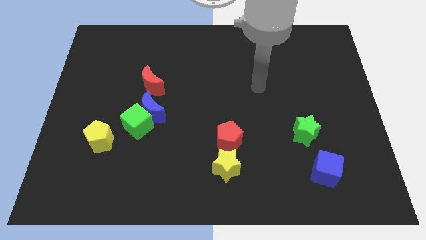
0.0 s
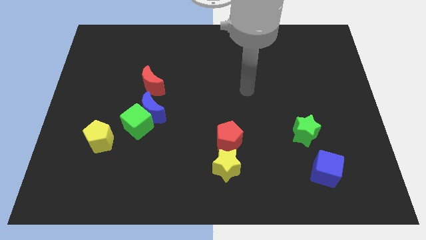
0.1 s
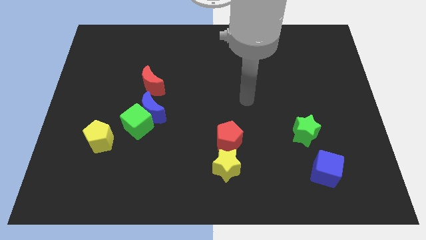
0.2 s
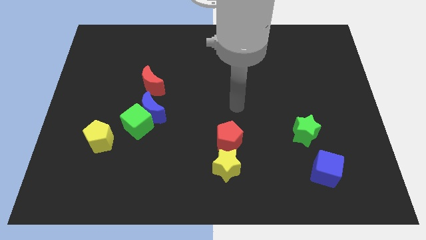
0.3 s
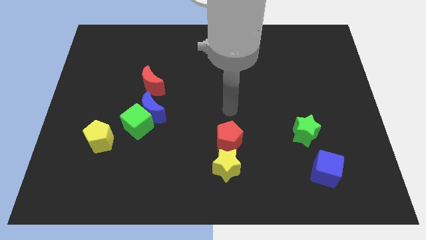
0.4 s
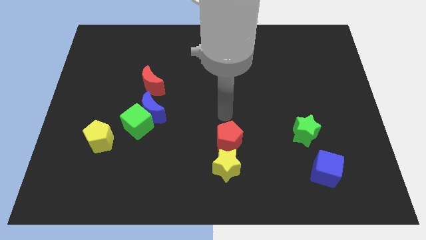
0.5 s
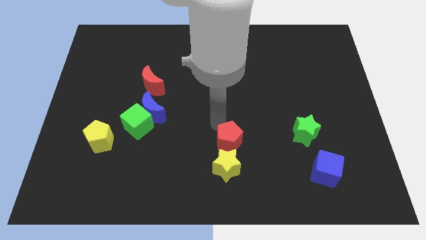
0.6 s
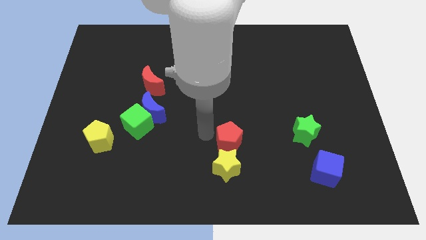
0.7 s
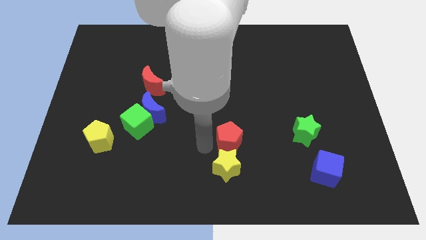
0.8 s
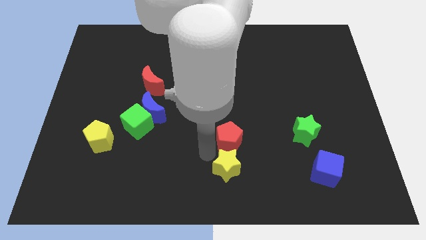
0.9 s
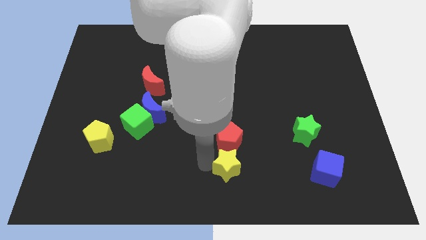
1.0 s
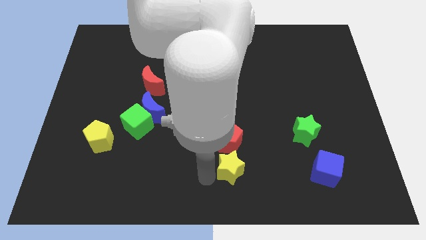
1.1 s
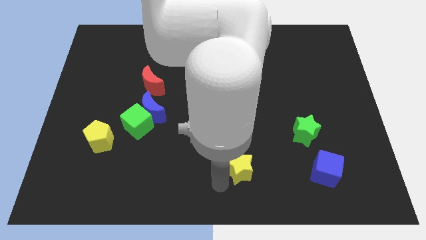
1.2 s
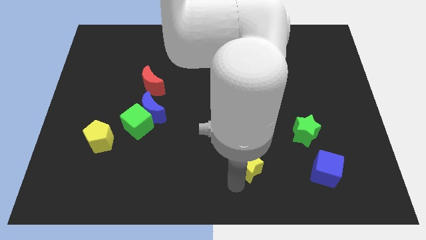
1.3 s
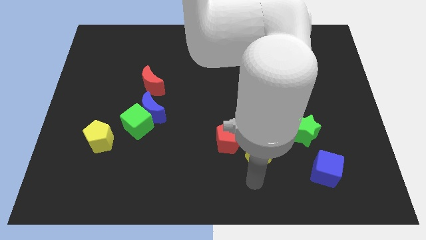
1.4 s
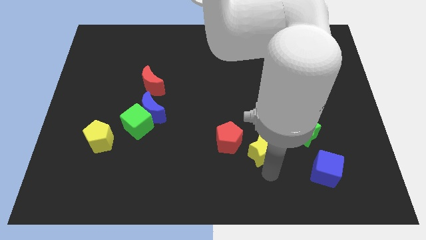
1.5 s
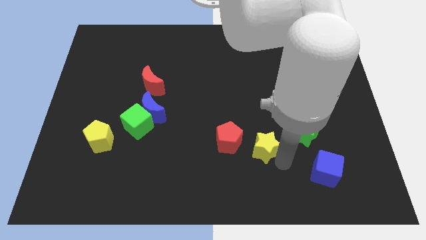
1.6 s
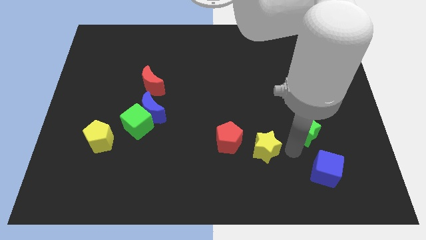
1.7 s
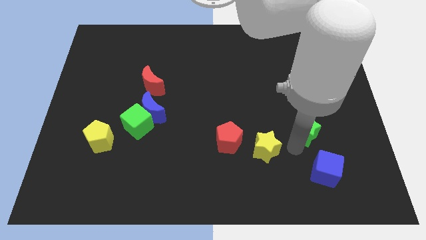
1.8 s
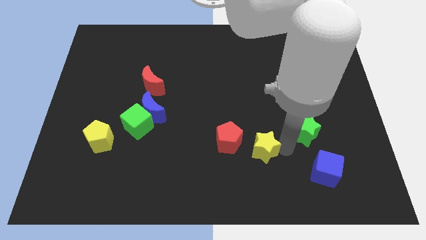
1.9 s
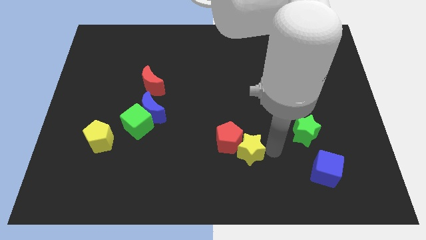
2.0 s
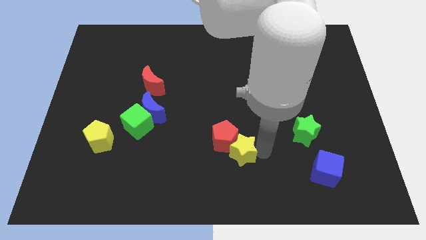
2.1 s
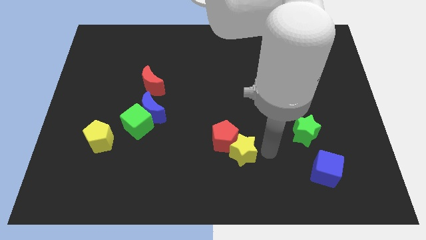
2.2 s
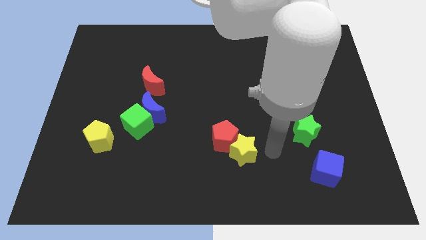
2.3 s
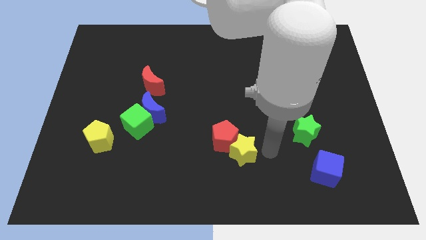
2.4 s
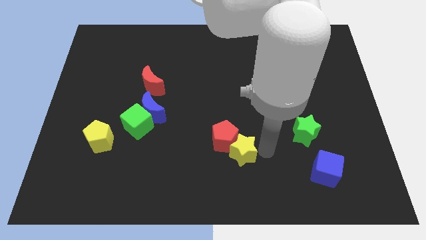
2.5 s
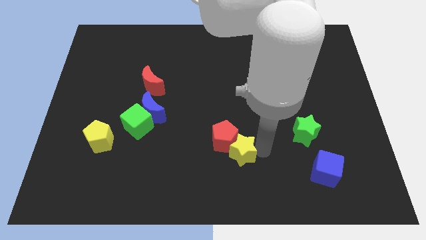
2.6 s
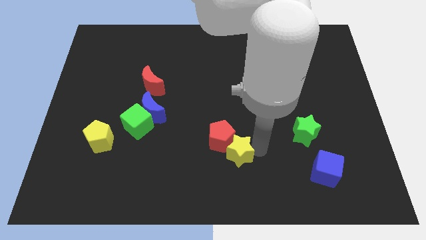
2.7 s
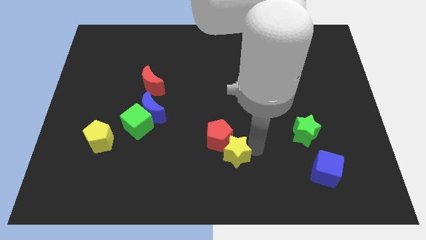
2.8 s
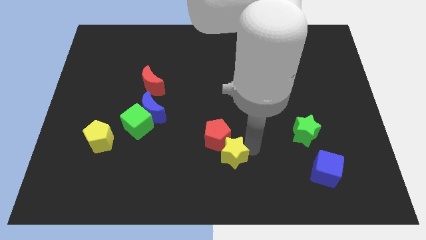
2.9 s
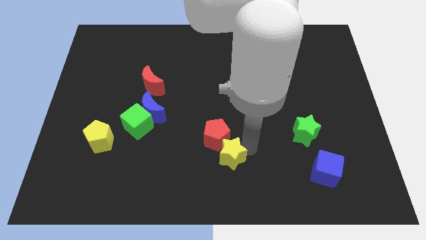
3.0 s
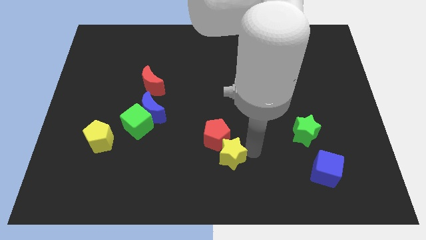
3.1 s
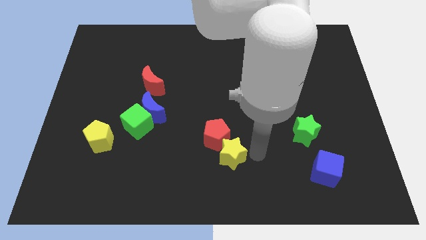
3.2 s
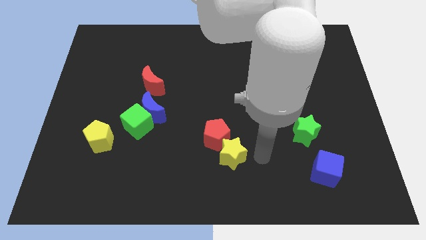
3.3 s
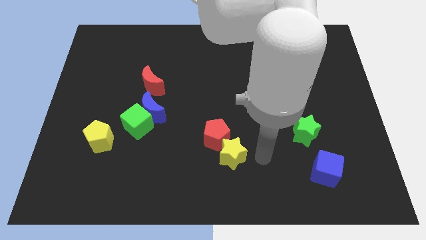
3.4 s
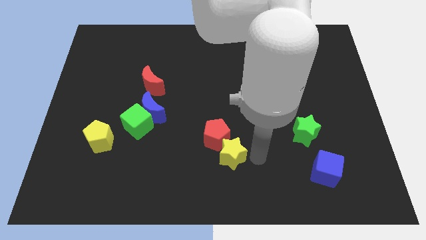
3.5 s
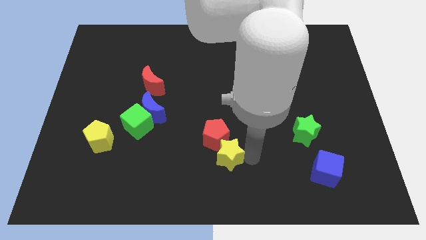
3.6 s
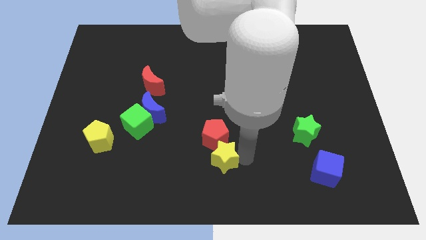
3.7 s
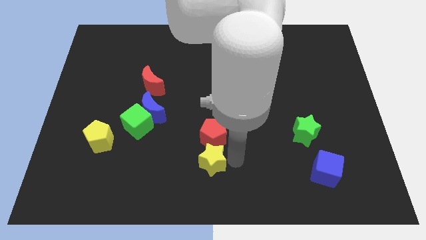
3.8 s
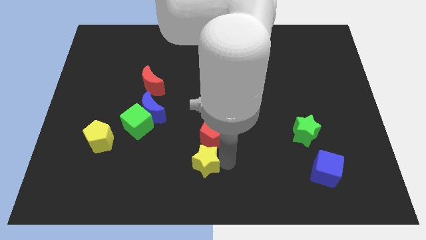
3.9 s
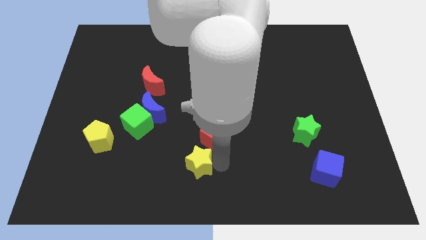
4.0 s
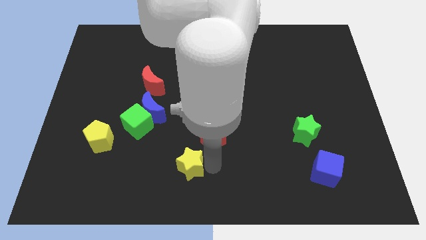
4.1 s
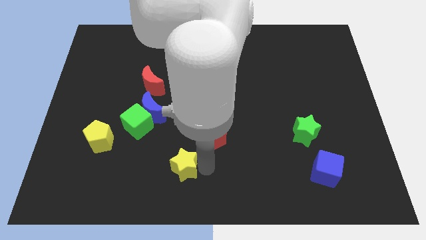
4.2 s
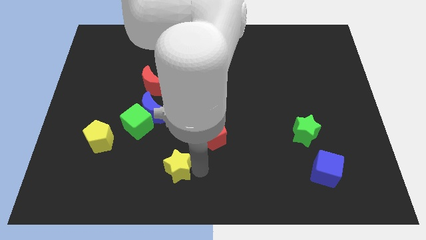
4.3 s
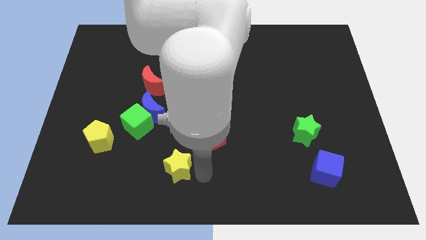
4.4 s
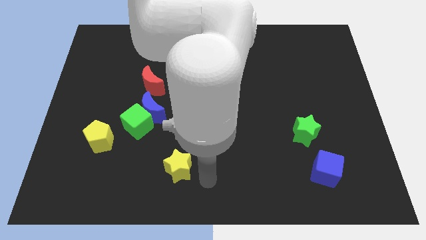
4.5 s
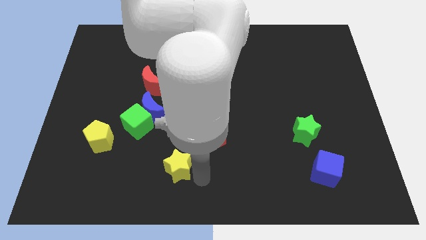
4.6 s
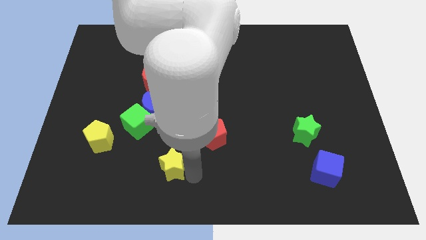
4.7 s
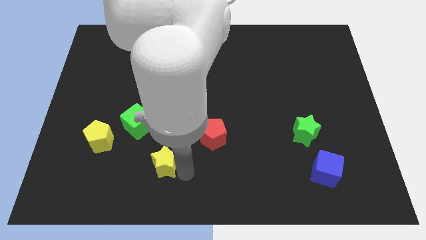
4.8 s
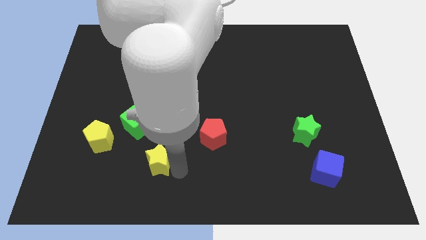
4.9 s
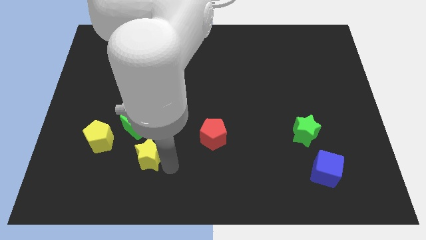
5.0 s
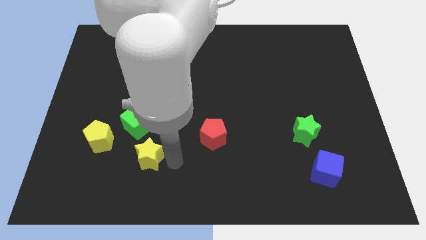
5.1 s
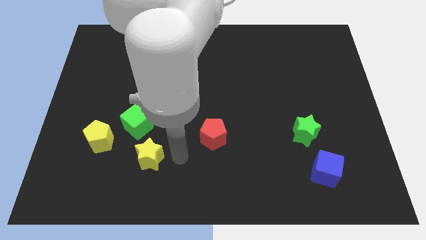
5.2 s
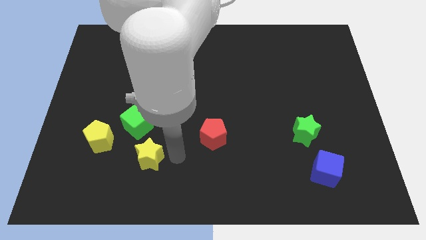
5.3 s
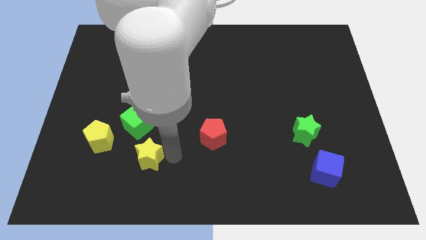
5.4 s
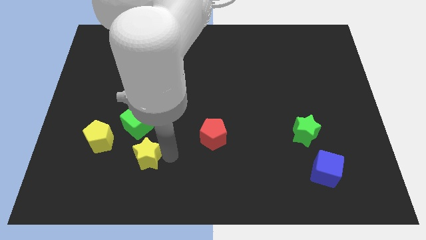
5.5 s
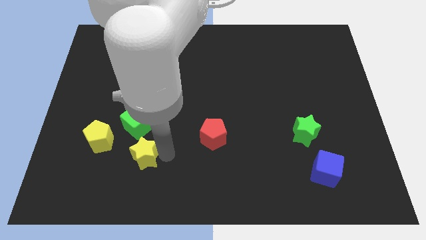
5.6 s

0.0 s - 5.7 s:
slide the yellow star to the bottom right of the yellow pentagon

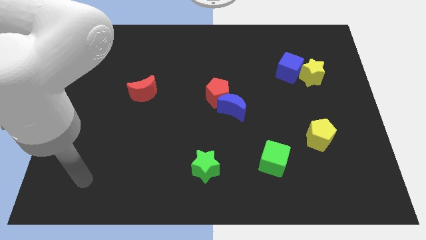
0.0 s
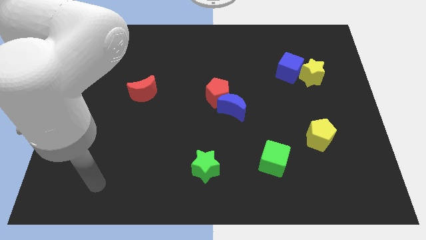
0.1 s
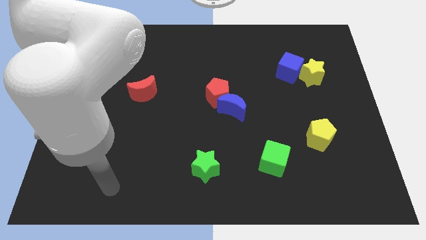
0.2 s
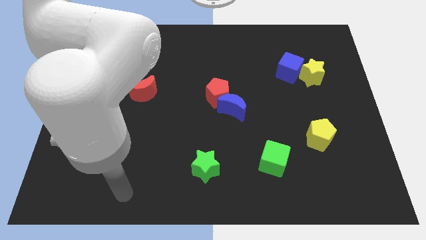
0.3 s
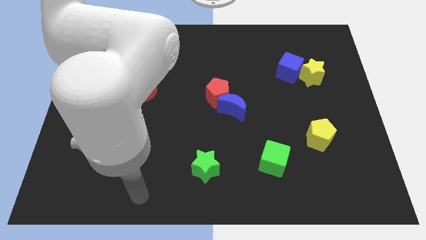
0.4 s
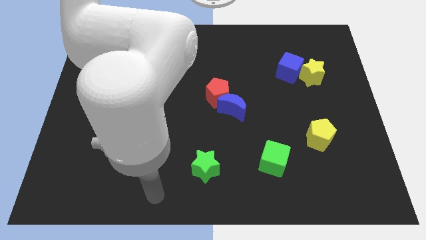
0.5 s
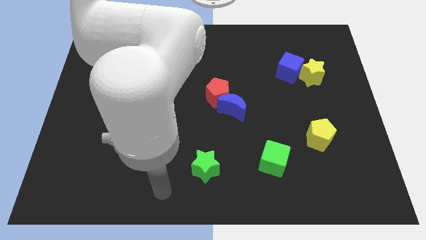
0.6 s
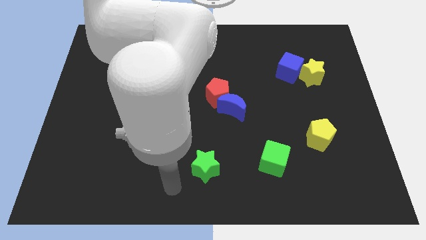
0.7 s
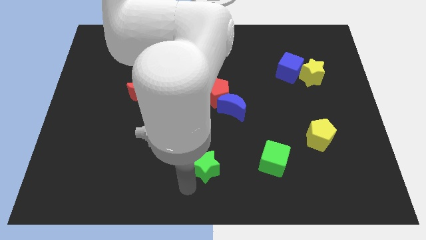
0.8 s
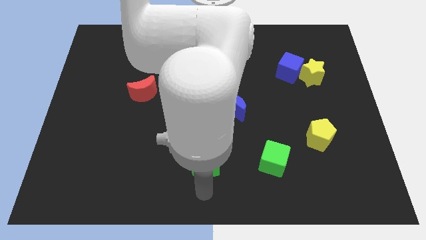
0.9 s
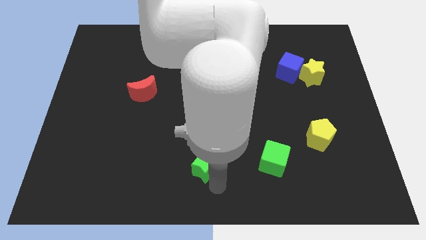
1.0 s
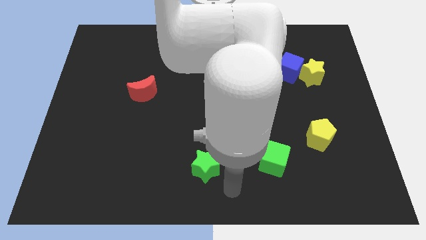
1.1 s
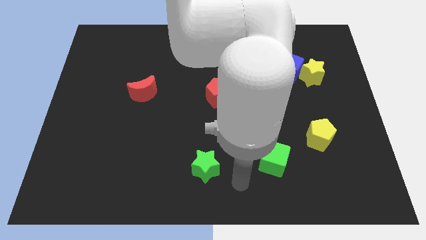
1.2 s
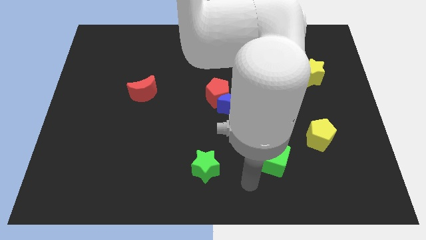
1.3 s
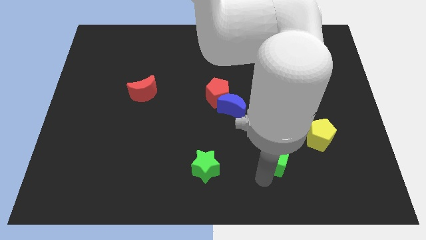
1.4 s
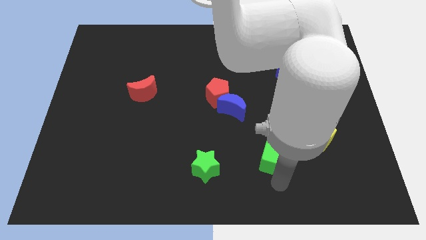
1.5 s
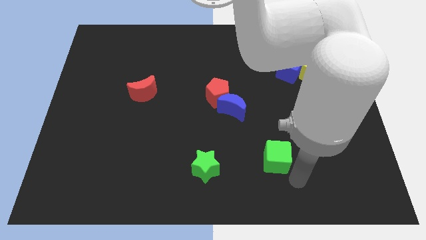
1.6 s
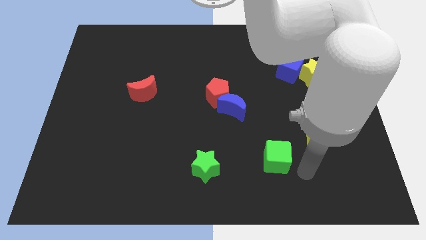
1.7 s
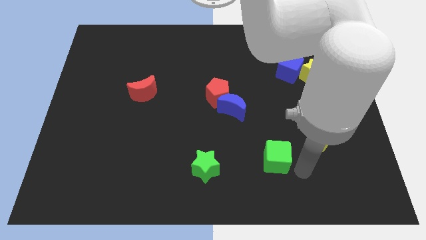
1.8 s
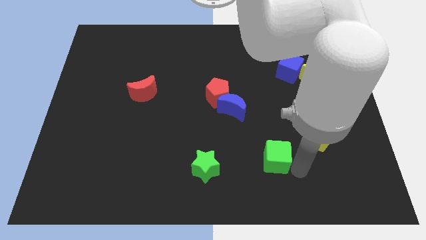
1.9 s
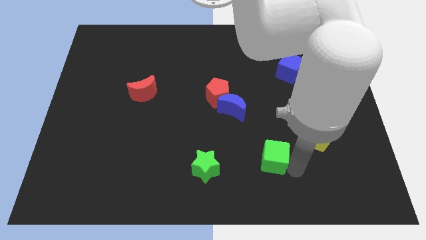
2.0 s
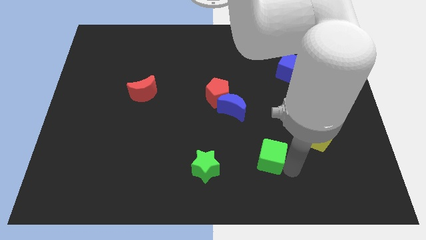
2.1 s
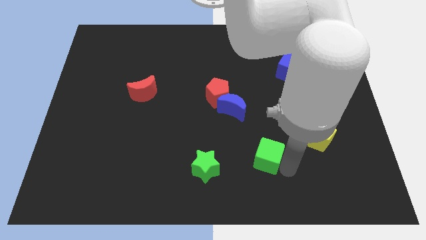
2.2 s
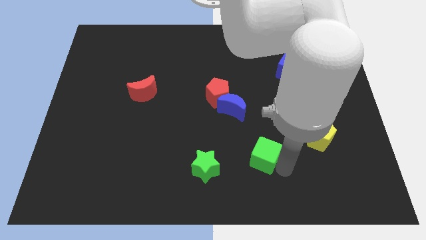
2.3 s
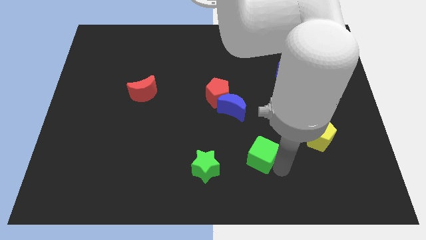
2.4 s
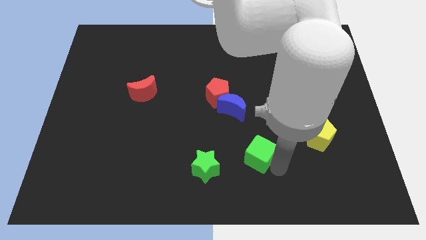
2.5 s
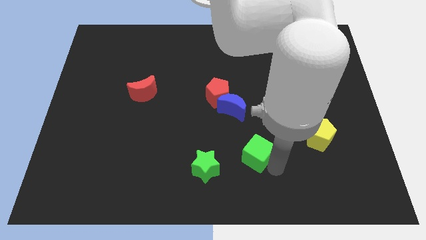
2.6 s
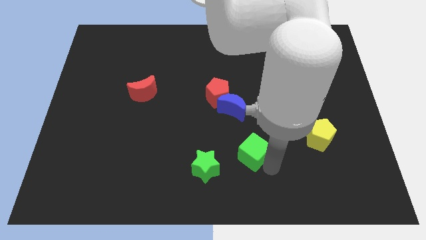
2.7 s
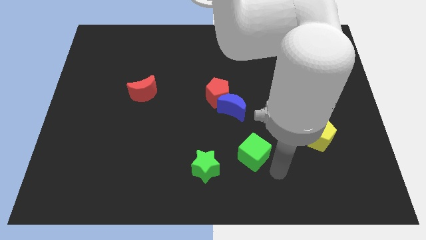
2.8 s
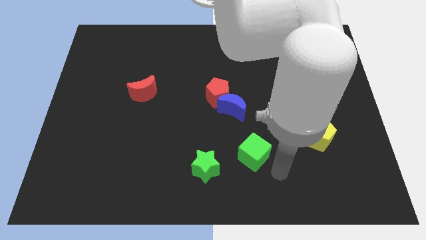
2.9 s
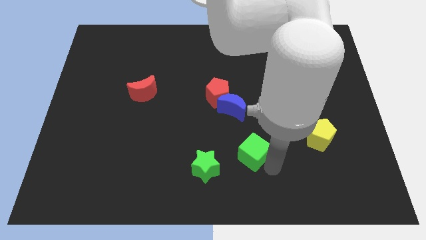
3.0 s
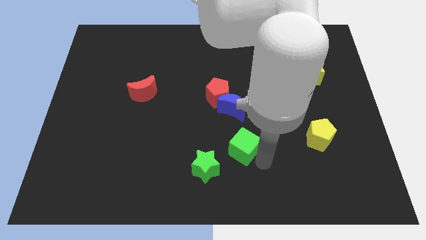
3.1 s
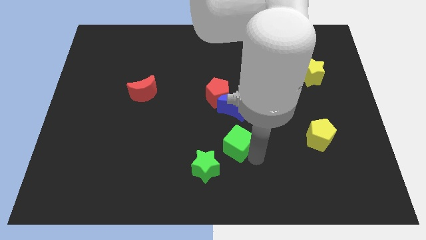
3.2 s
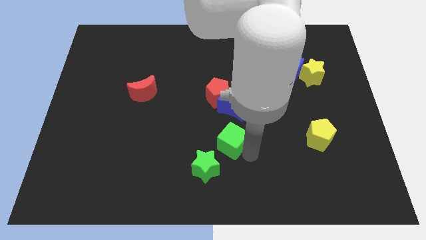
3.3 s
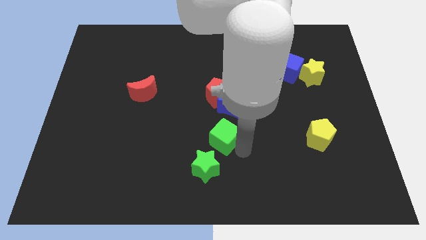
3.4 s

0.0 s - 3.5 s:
slide the green cube to the top of the green star
